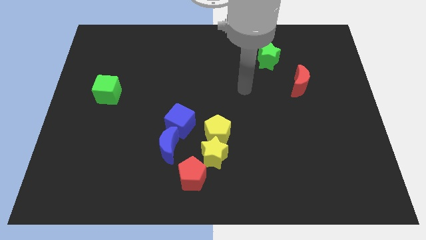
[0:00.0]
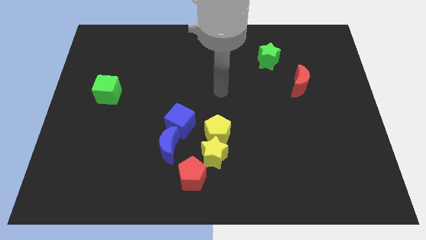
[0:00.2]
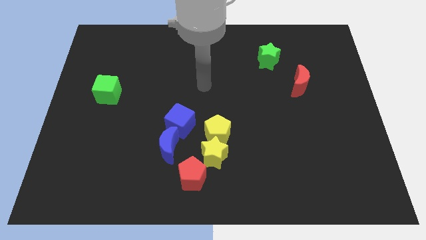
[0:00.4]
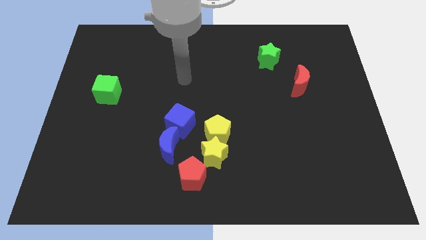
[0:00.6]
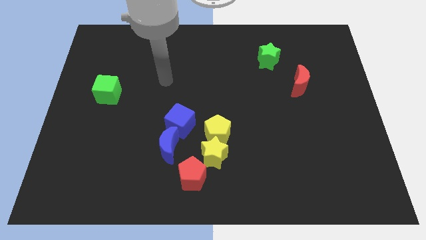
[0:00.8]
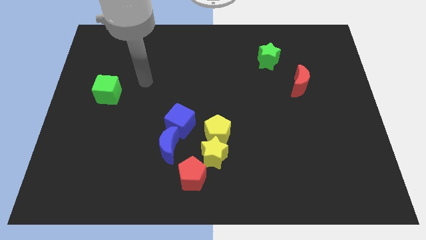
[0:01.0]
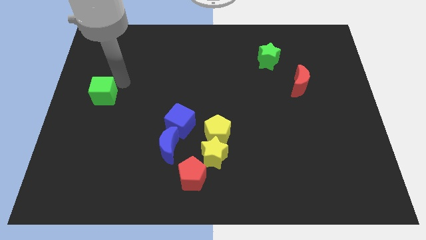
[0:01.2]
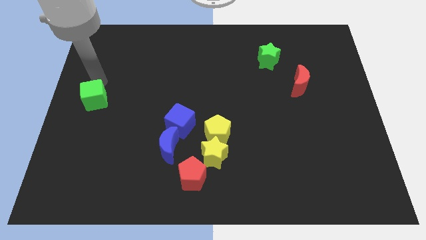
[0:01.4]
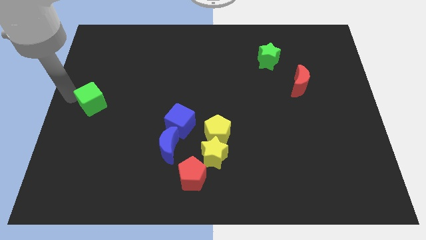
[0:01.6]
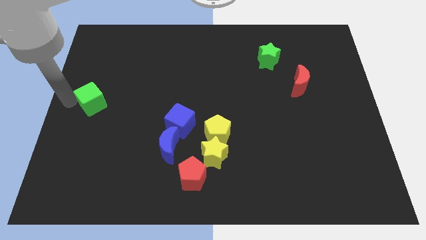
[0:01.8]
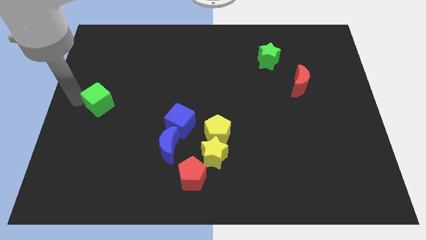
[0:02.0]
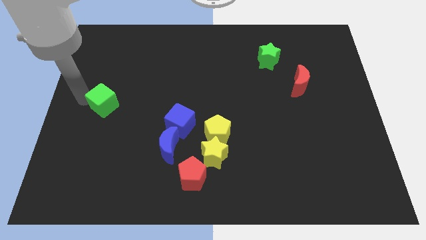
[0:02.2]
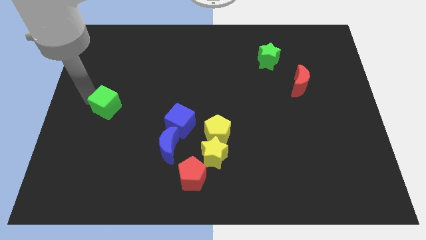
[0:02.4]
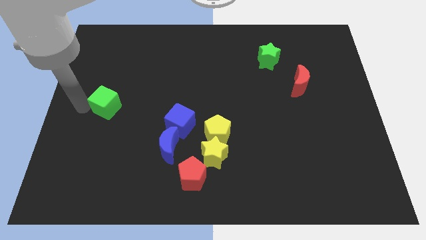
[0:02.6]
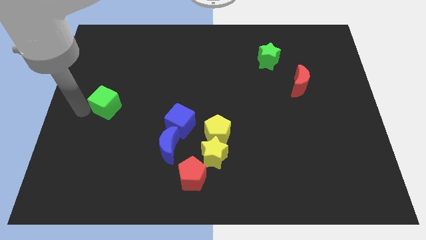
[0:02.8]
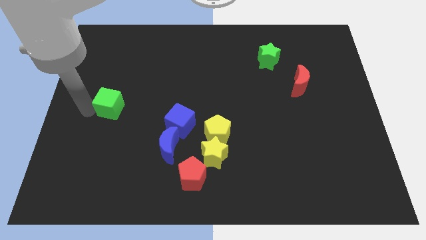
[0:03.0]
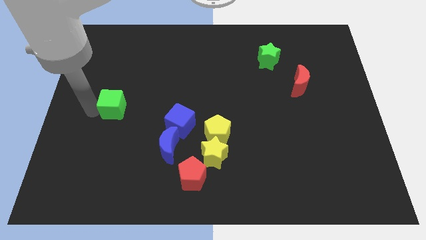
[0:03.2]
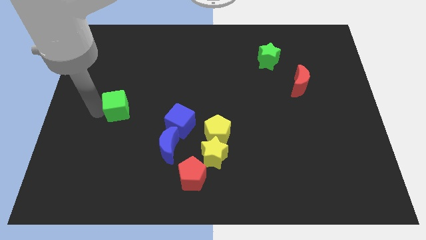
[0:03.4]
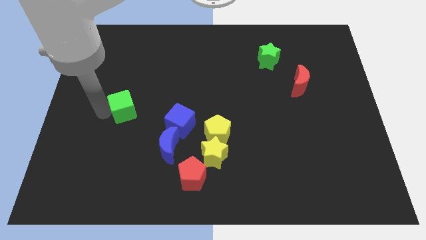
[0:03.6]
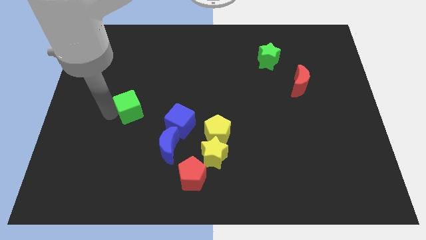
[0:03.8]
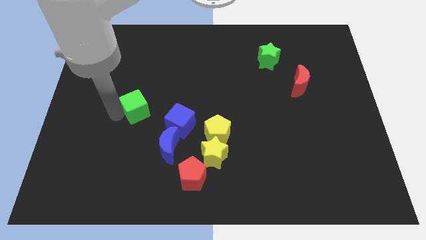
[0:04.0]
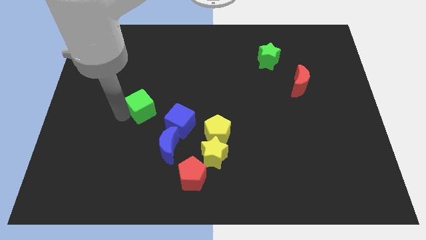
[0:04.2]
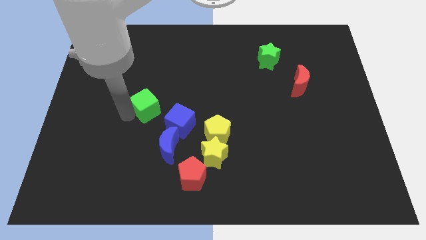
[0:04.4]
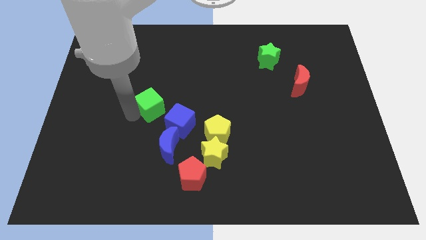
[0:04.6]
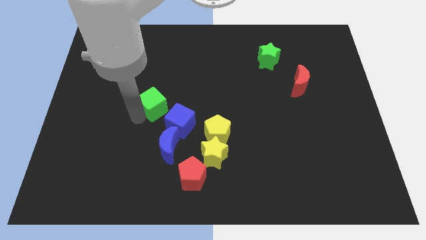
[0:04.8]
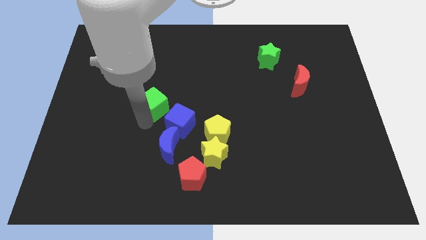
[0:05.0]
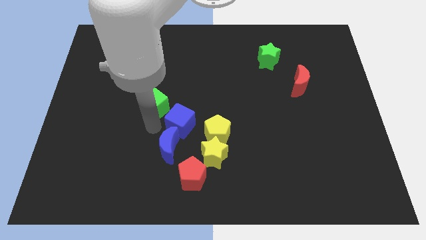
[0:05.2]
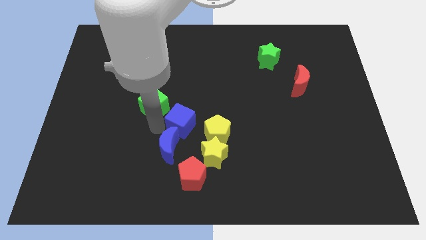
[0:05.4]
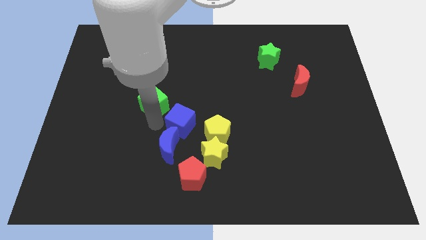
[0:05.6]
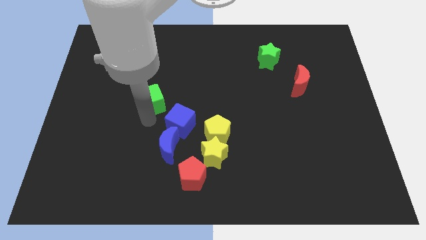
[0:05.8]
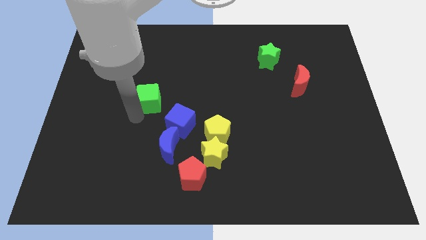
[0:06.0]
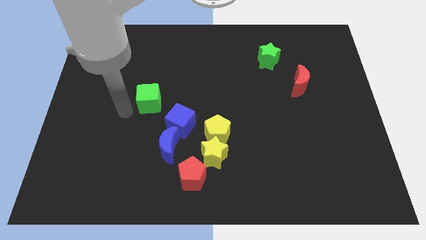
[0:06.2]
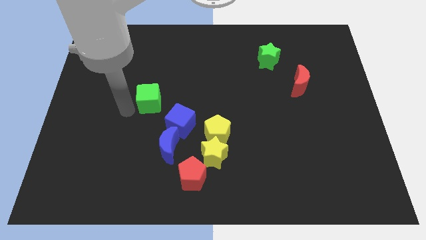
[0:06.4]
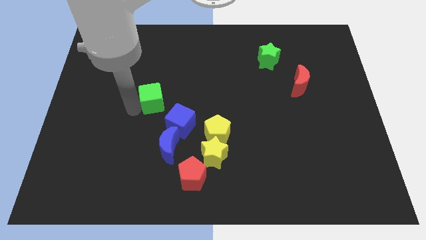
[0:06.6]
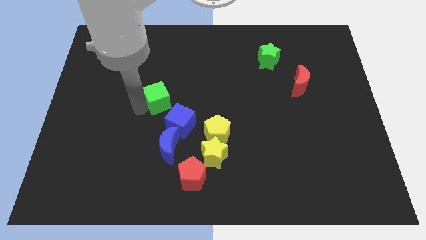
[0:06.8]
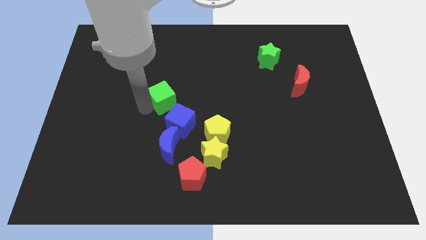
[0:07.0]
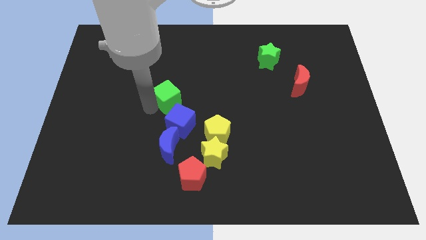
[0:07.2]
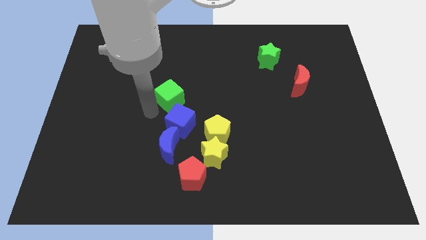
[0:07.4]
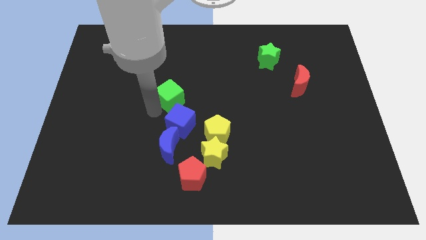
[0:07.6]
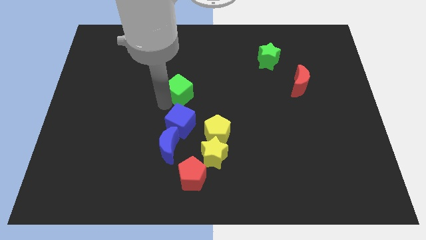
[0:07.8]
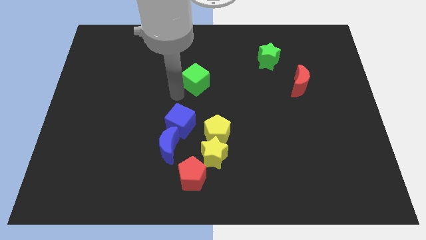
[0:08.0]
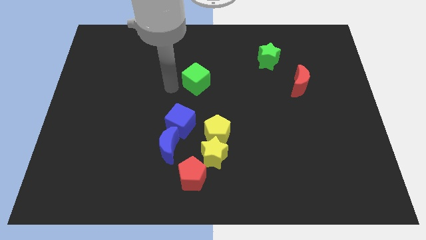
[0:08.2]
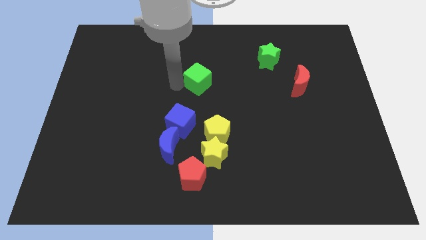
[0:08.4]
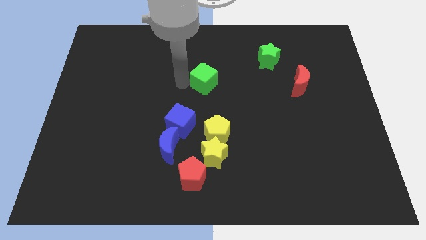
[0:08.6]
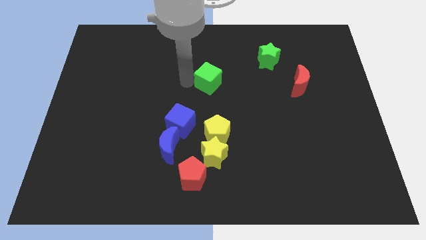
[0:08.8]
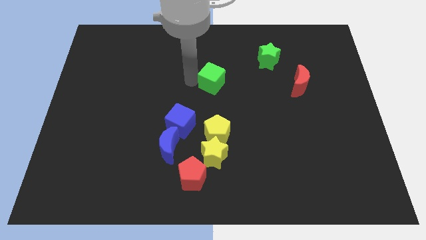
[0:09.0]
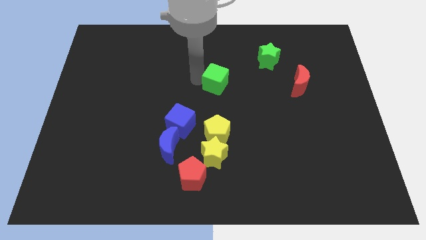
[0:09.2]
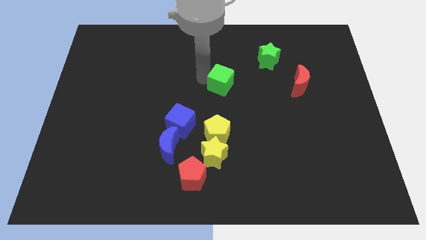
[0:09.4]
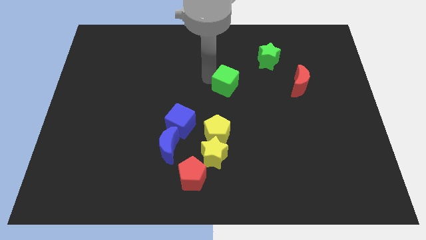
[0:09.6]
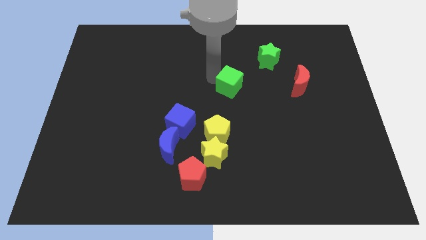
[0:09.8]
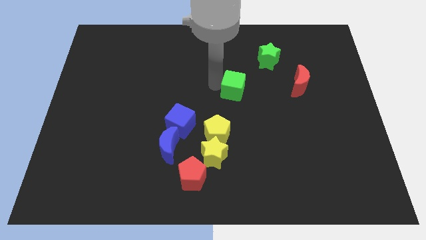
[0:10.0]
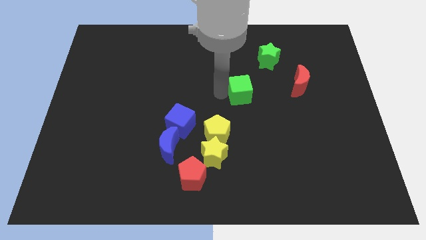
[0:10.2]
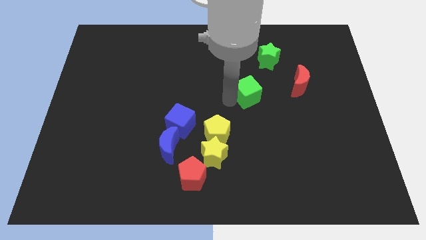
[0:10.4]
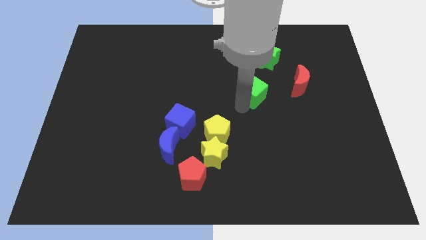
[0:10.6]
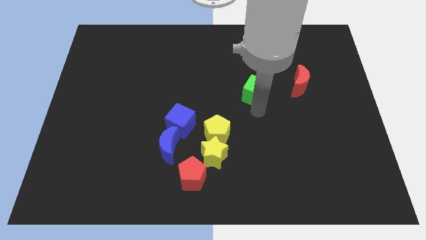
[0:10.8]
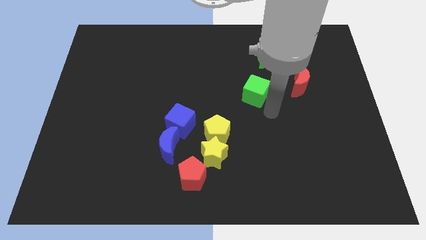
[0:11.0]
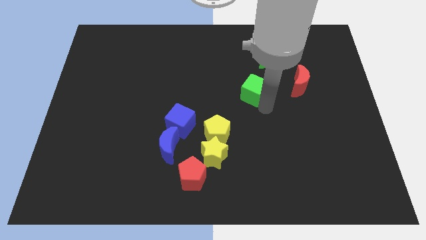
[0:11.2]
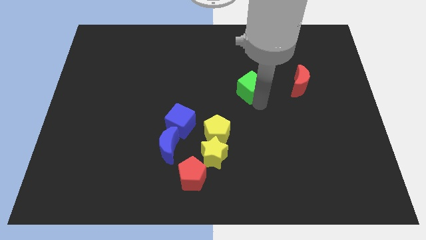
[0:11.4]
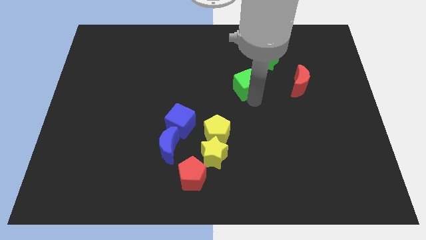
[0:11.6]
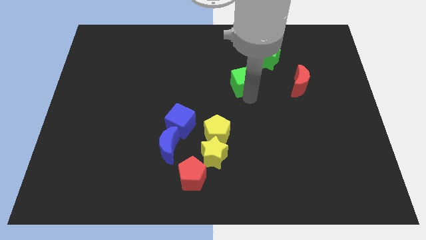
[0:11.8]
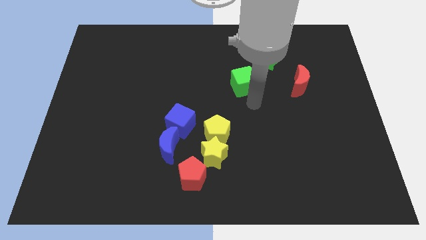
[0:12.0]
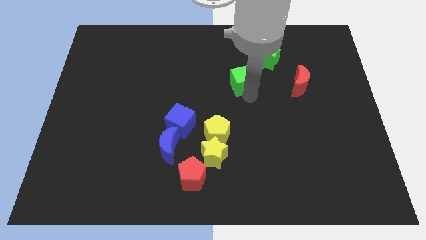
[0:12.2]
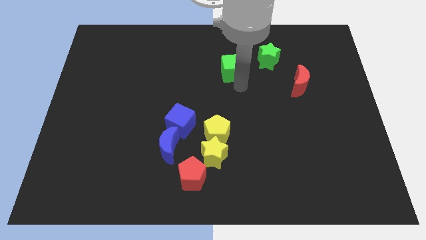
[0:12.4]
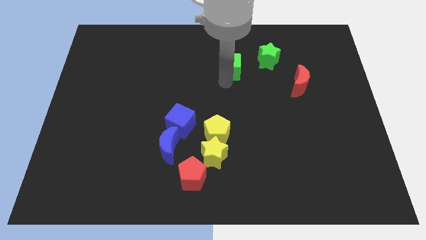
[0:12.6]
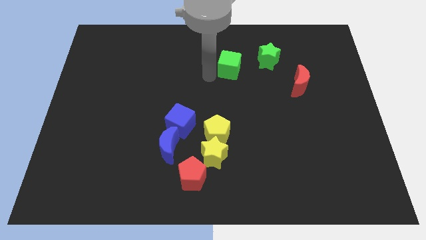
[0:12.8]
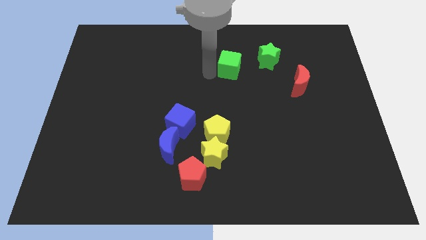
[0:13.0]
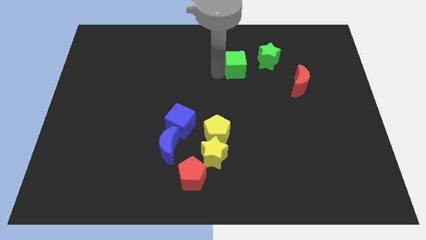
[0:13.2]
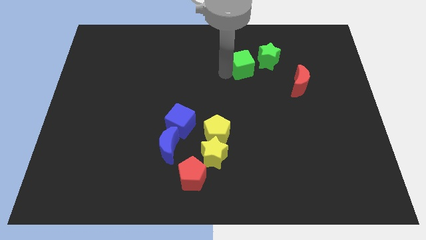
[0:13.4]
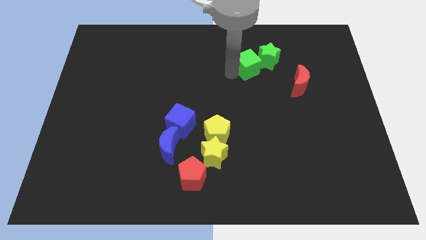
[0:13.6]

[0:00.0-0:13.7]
slide the green cube towards the green star
